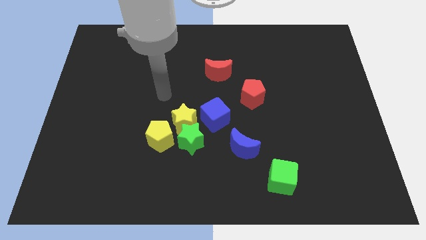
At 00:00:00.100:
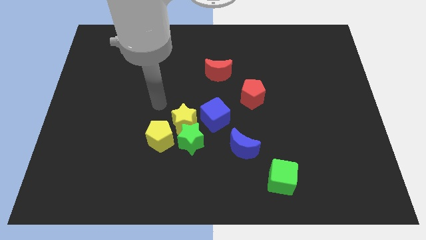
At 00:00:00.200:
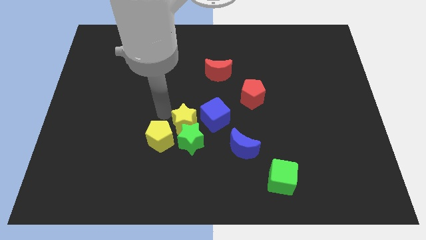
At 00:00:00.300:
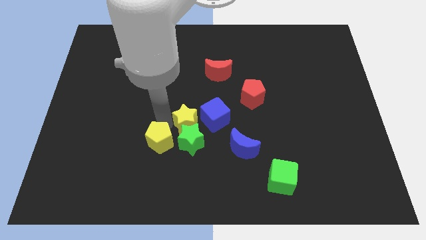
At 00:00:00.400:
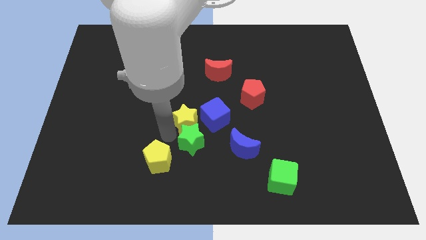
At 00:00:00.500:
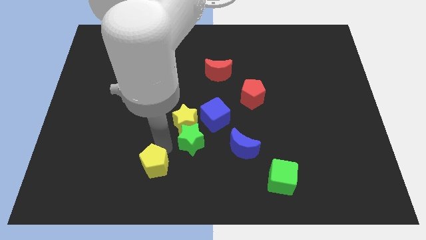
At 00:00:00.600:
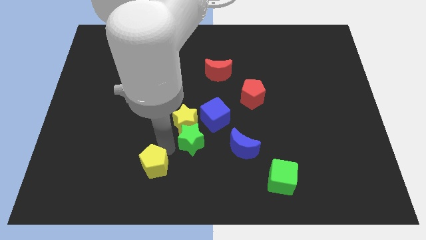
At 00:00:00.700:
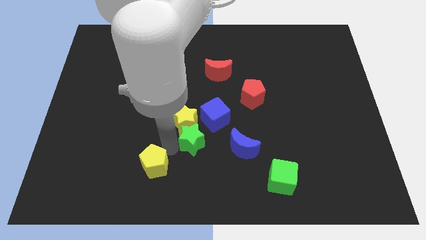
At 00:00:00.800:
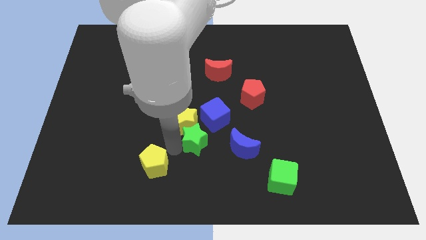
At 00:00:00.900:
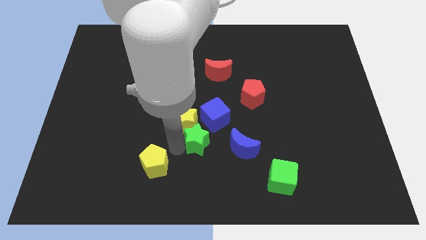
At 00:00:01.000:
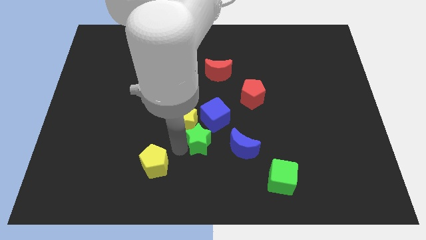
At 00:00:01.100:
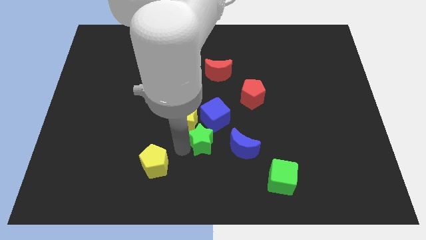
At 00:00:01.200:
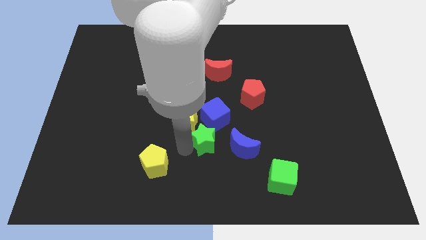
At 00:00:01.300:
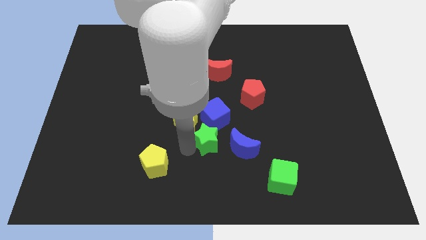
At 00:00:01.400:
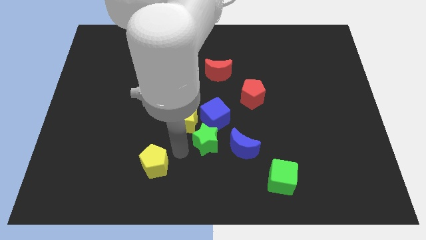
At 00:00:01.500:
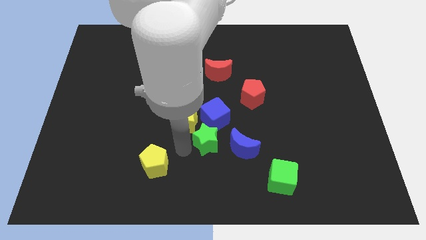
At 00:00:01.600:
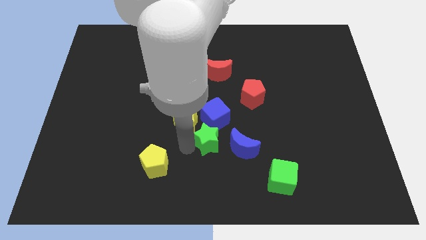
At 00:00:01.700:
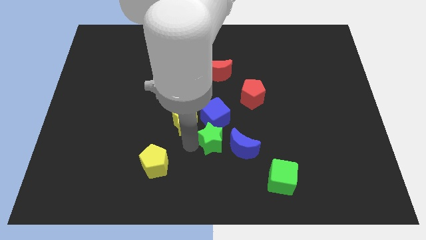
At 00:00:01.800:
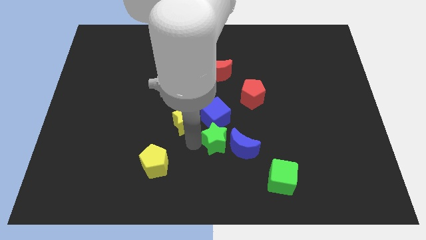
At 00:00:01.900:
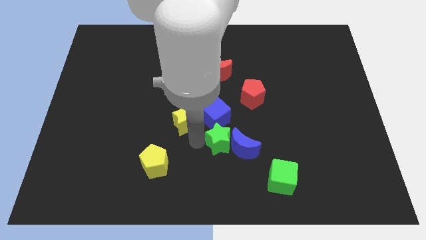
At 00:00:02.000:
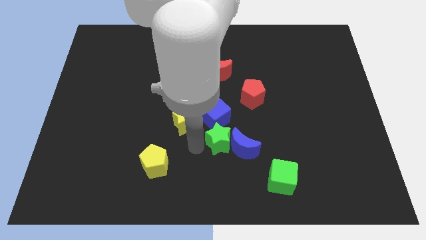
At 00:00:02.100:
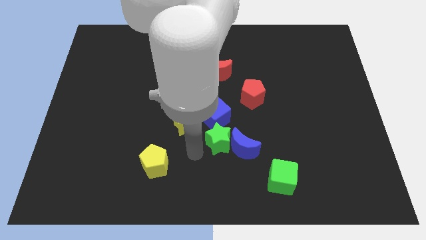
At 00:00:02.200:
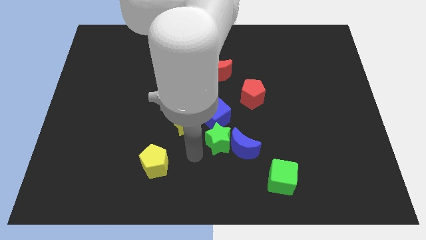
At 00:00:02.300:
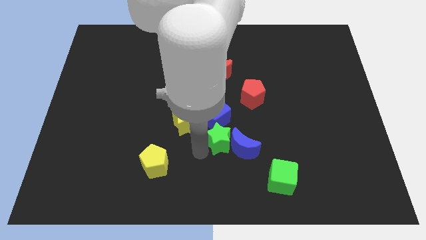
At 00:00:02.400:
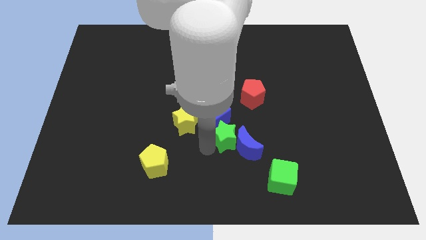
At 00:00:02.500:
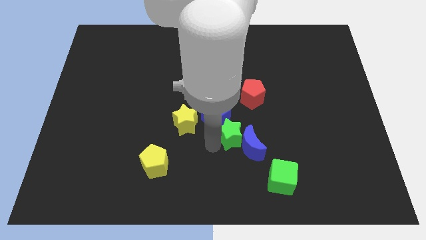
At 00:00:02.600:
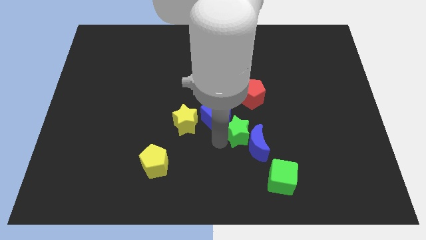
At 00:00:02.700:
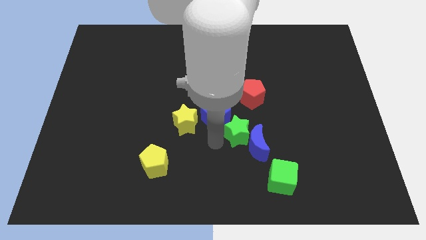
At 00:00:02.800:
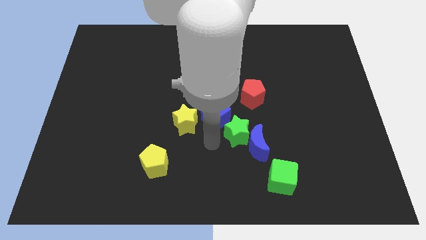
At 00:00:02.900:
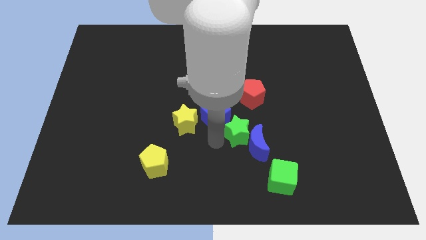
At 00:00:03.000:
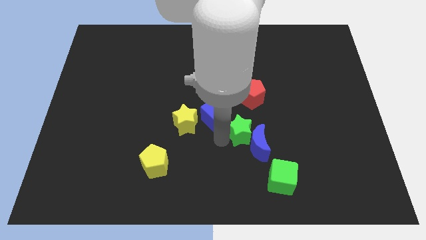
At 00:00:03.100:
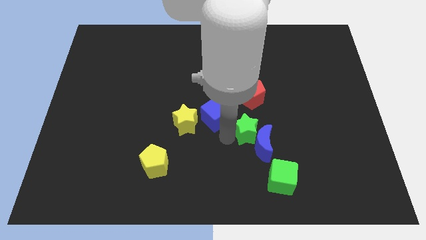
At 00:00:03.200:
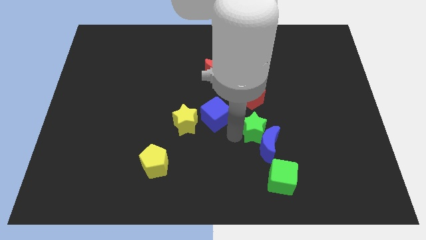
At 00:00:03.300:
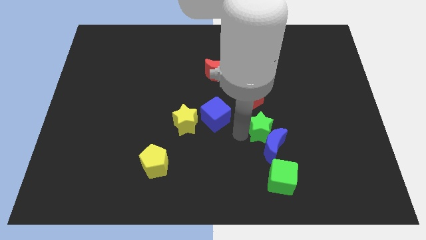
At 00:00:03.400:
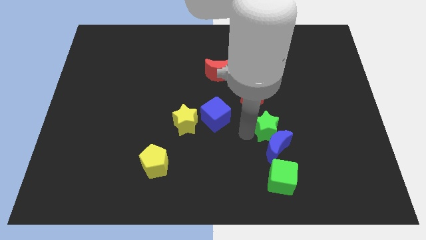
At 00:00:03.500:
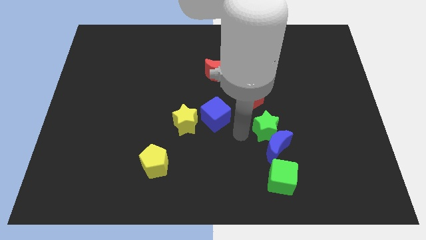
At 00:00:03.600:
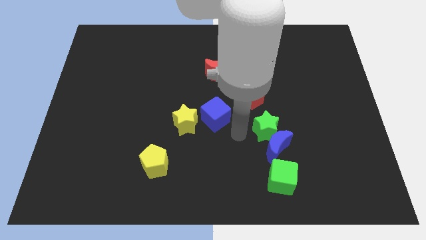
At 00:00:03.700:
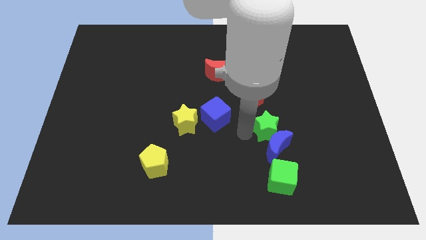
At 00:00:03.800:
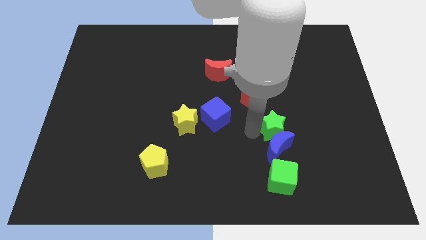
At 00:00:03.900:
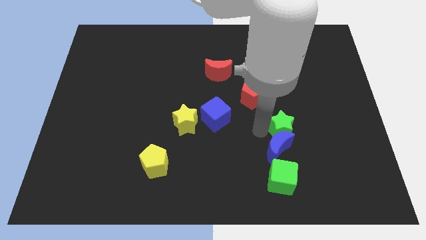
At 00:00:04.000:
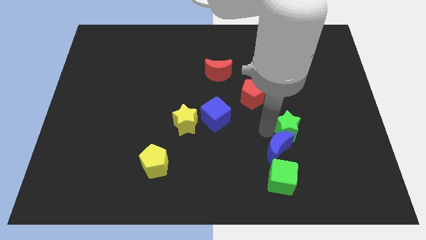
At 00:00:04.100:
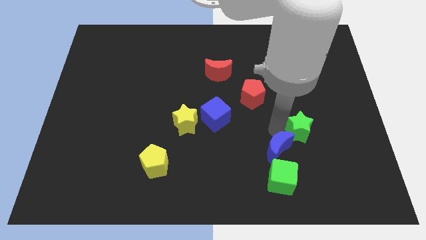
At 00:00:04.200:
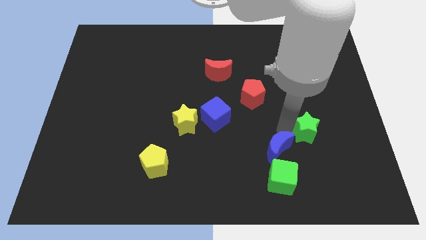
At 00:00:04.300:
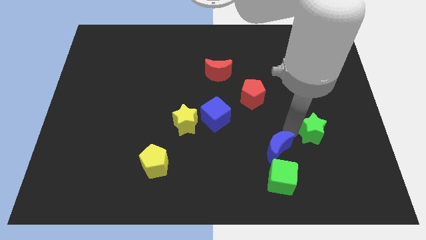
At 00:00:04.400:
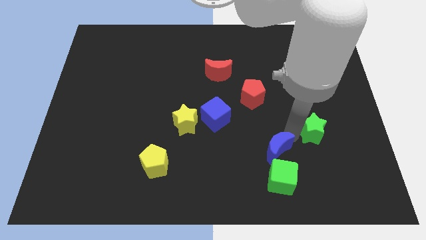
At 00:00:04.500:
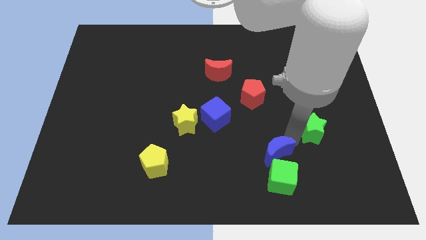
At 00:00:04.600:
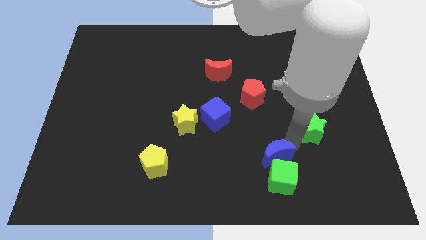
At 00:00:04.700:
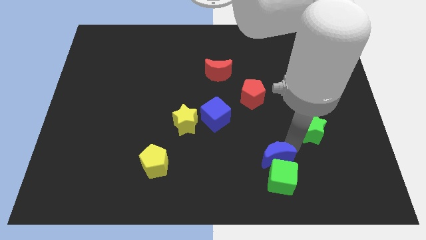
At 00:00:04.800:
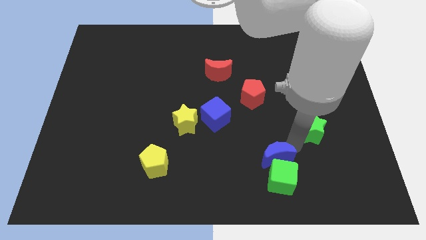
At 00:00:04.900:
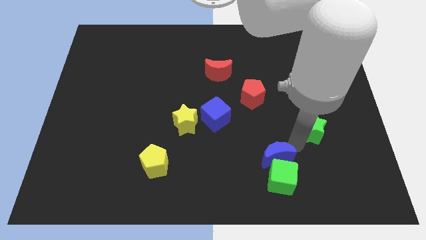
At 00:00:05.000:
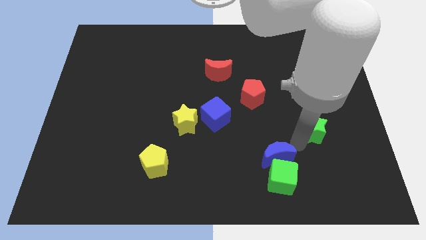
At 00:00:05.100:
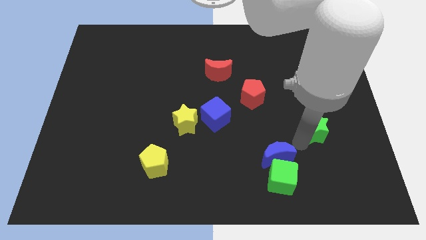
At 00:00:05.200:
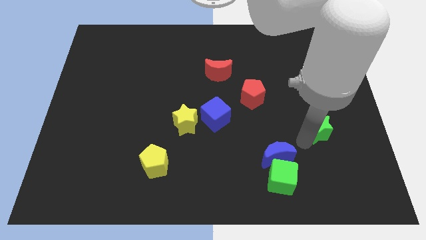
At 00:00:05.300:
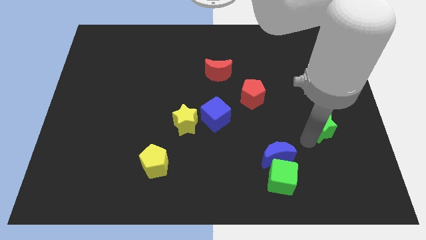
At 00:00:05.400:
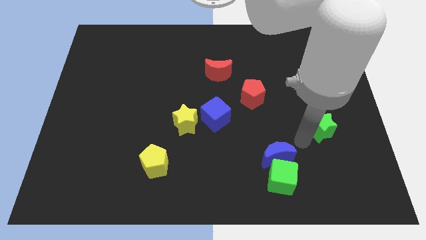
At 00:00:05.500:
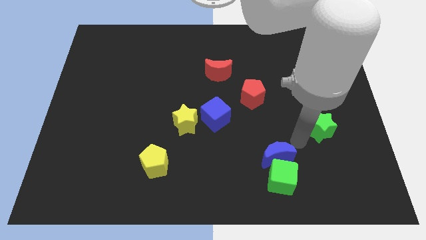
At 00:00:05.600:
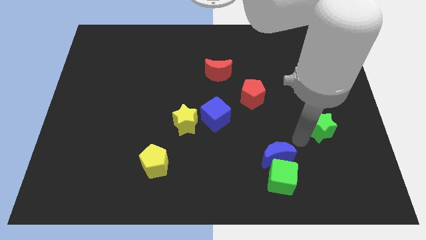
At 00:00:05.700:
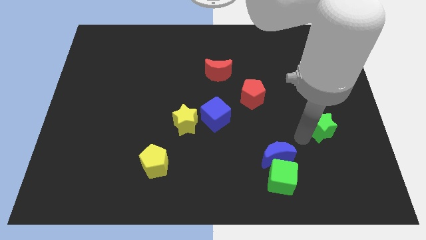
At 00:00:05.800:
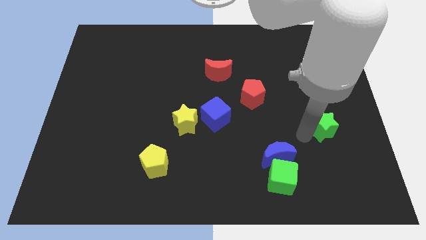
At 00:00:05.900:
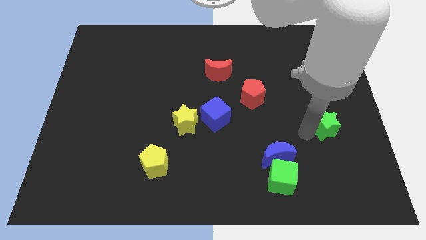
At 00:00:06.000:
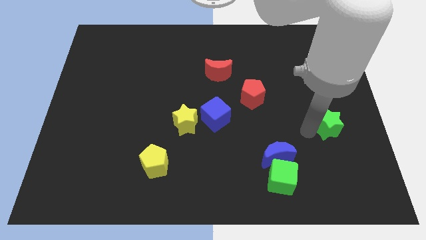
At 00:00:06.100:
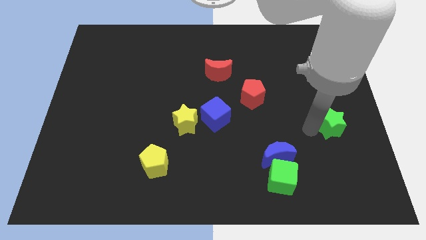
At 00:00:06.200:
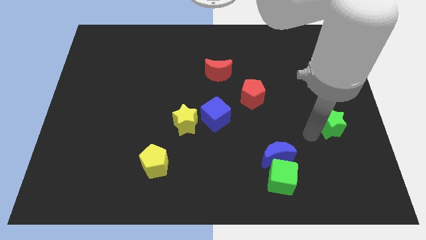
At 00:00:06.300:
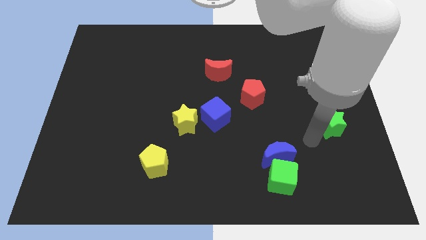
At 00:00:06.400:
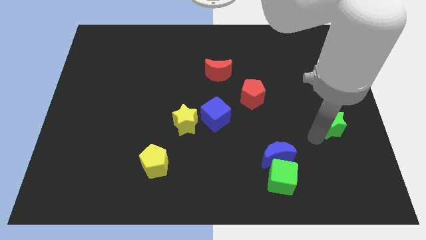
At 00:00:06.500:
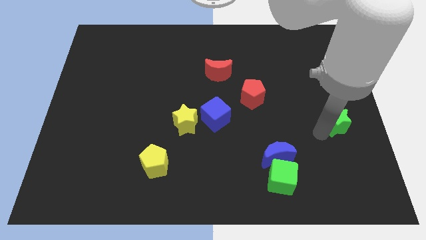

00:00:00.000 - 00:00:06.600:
push the green star to the center right
